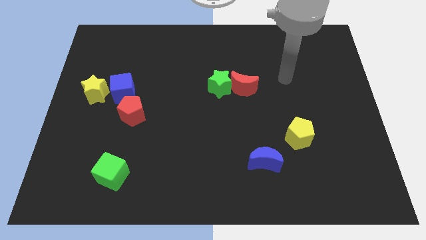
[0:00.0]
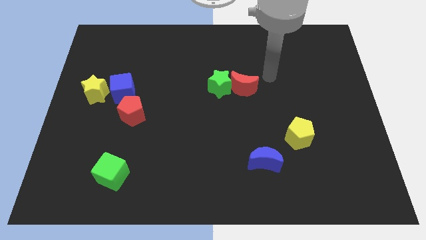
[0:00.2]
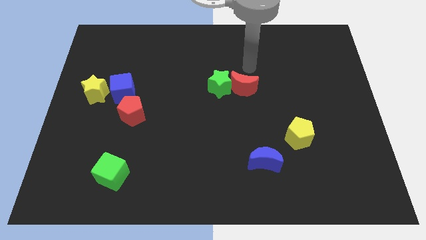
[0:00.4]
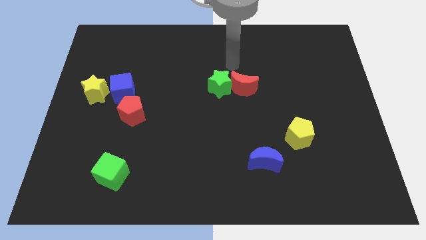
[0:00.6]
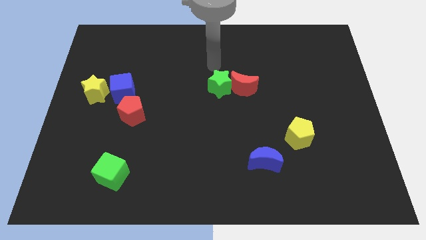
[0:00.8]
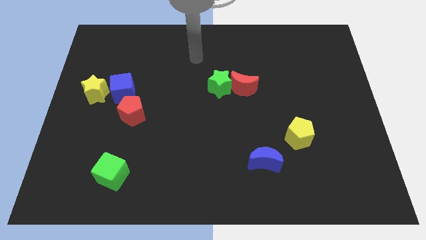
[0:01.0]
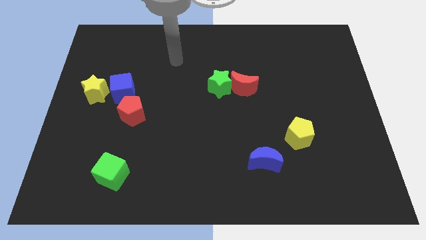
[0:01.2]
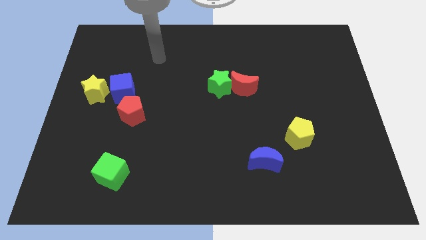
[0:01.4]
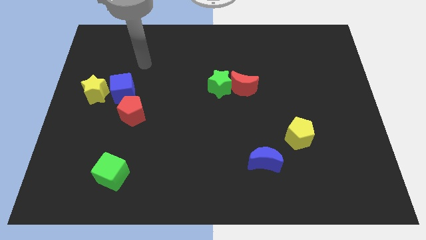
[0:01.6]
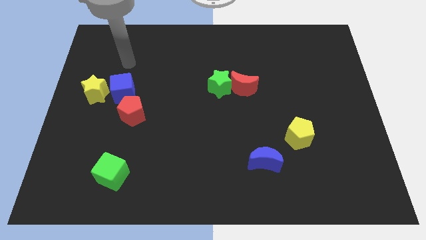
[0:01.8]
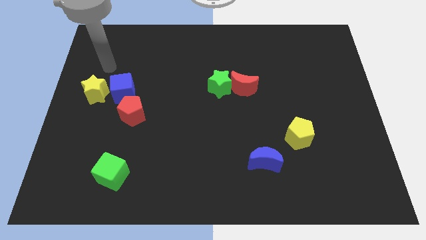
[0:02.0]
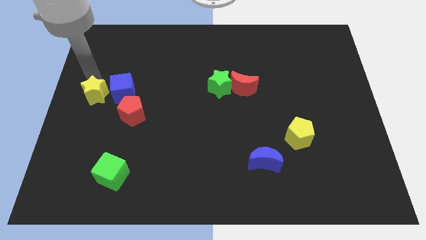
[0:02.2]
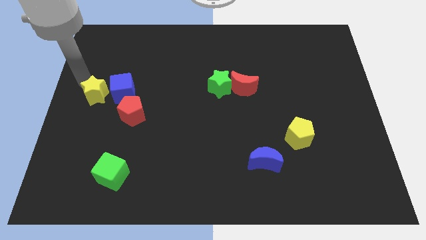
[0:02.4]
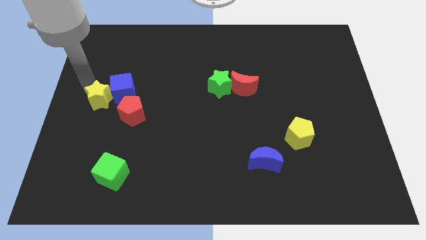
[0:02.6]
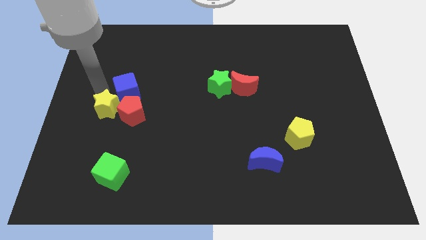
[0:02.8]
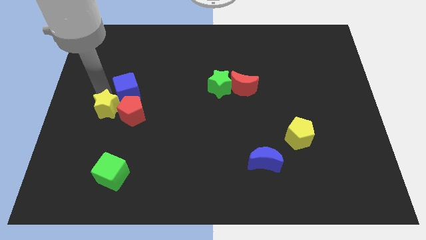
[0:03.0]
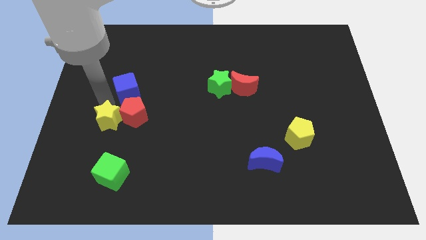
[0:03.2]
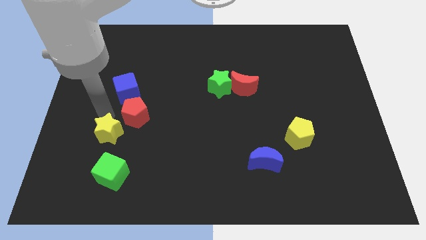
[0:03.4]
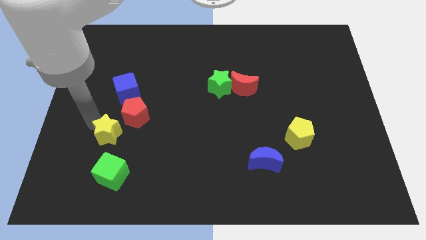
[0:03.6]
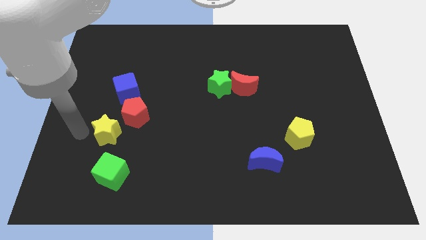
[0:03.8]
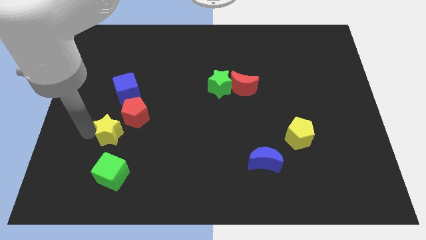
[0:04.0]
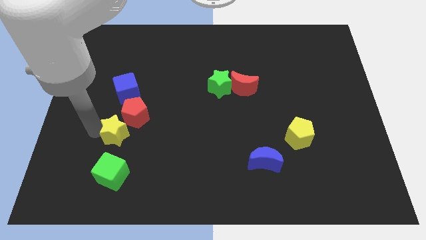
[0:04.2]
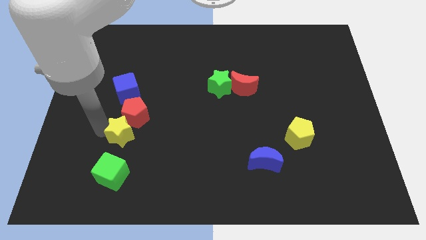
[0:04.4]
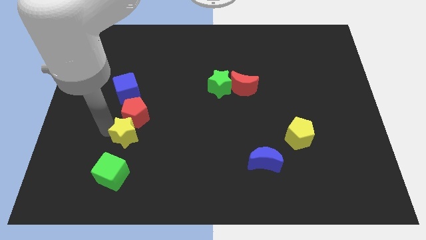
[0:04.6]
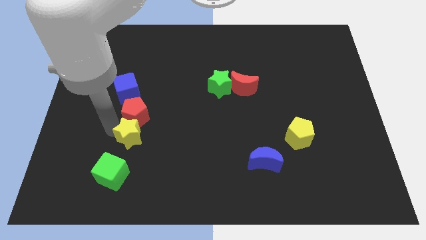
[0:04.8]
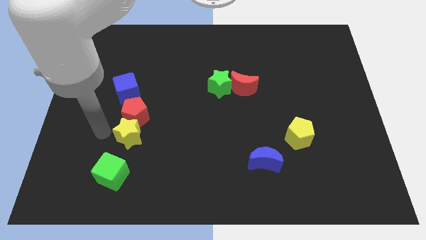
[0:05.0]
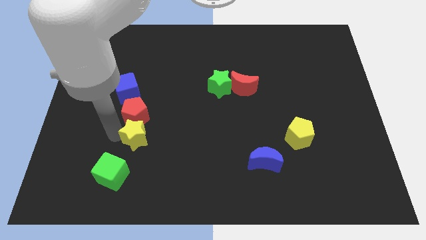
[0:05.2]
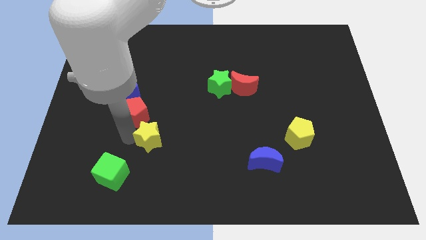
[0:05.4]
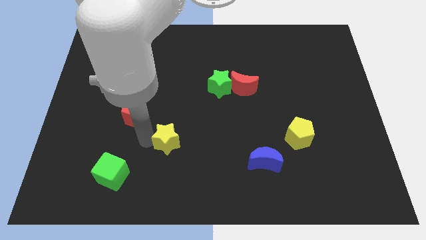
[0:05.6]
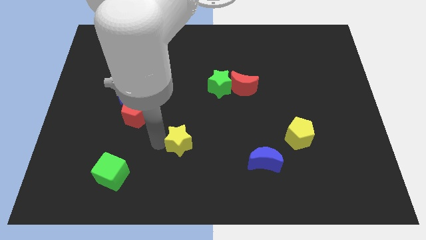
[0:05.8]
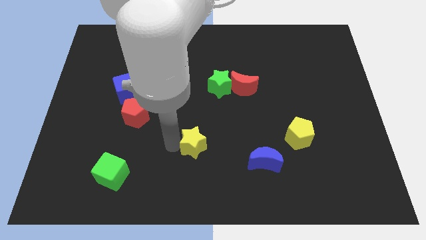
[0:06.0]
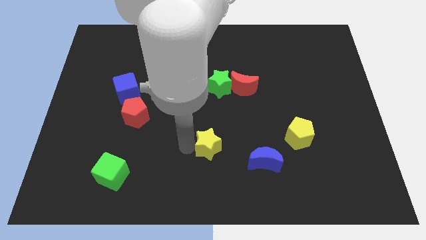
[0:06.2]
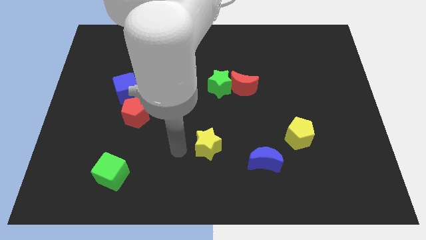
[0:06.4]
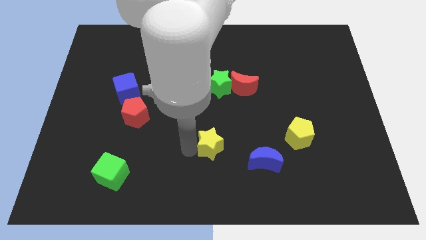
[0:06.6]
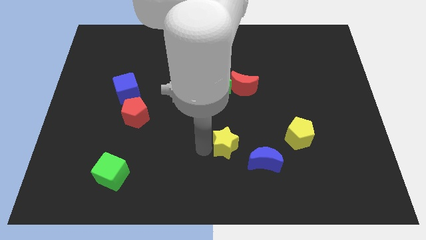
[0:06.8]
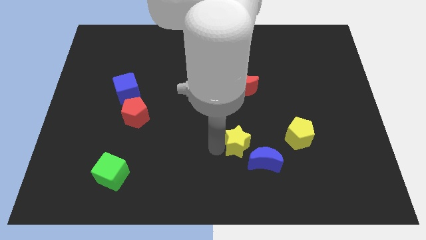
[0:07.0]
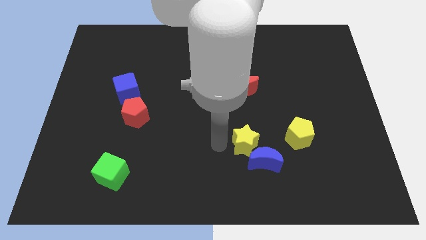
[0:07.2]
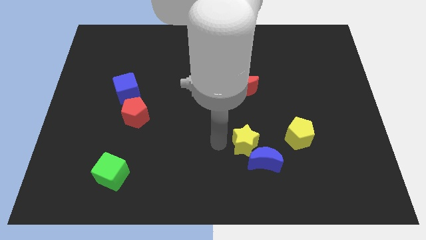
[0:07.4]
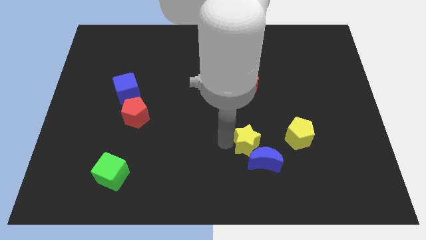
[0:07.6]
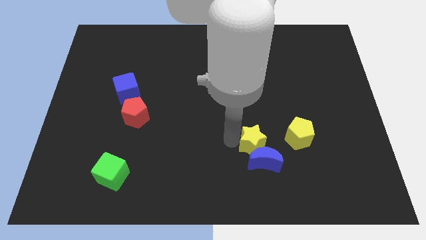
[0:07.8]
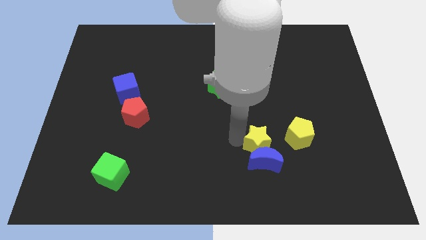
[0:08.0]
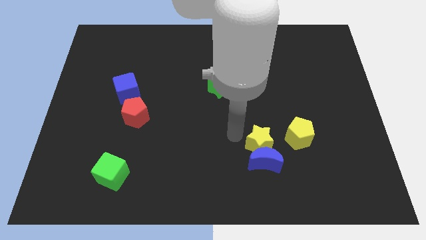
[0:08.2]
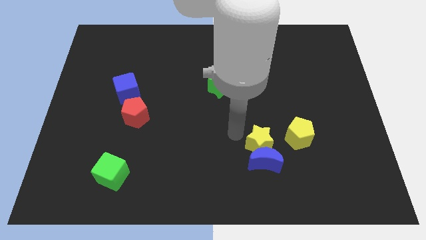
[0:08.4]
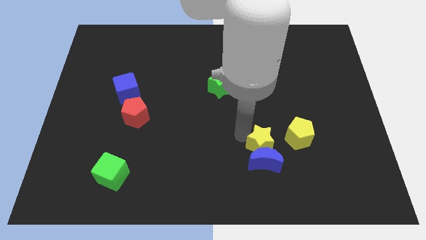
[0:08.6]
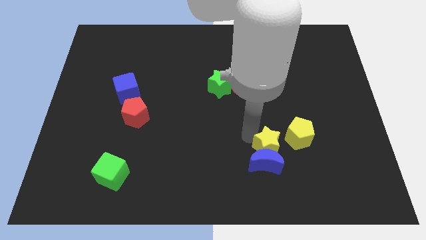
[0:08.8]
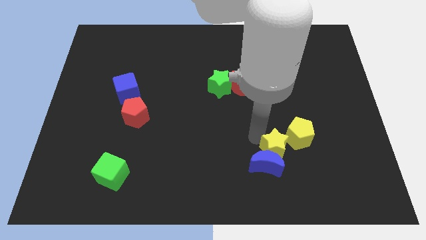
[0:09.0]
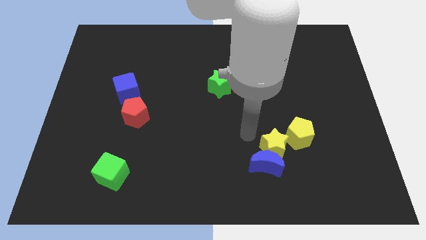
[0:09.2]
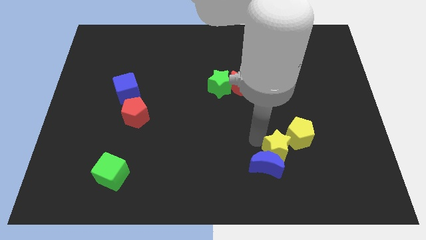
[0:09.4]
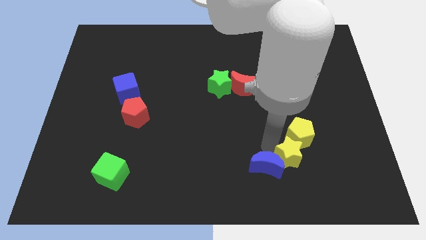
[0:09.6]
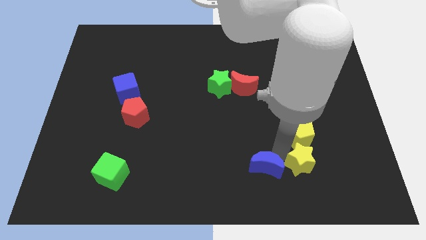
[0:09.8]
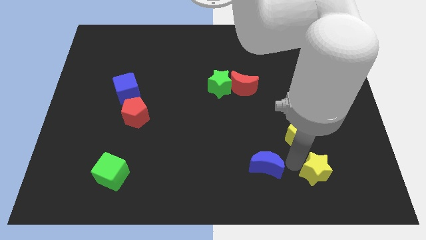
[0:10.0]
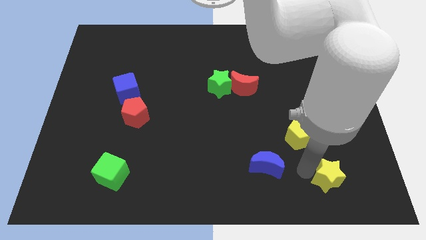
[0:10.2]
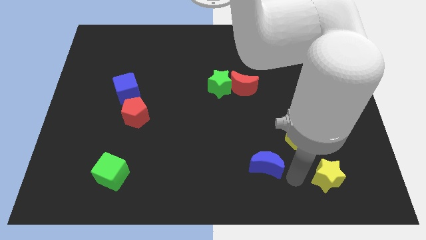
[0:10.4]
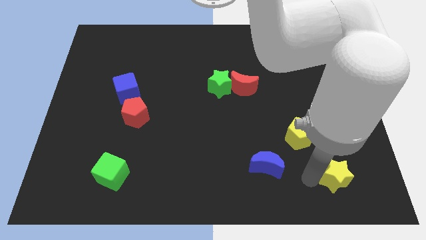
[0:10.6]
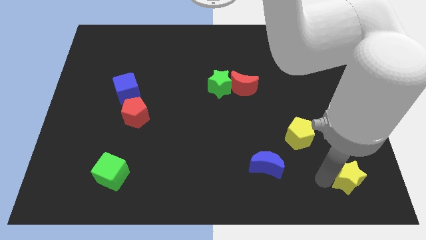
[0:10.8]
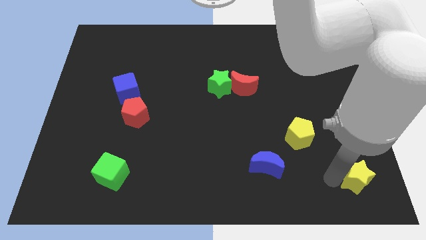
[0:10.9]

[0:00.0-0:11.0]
push the yellow star to the bottom right corner
